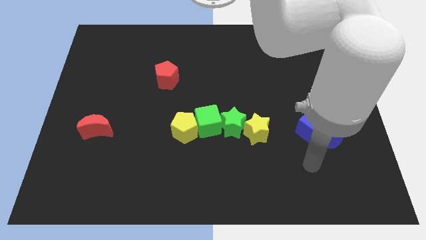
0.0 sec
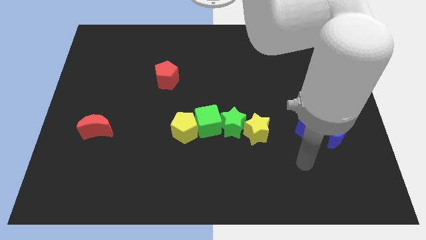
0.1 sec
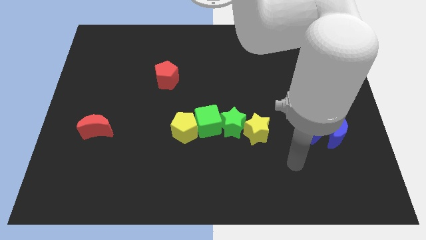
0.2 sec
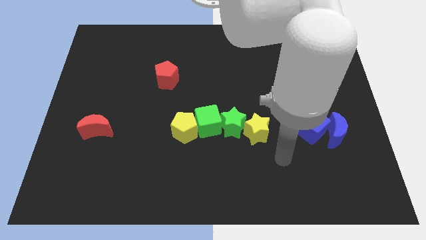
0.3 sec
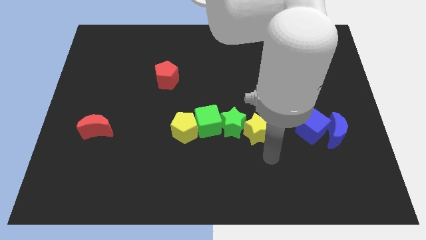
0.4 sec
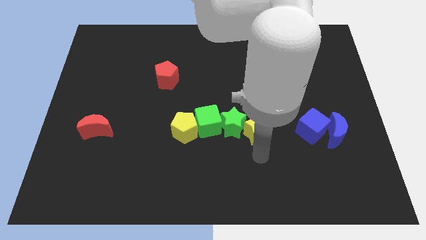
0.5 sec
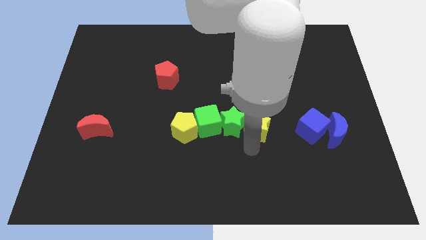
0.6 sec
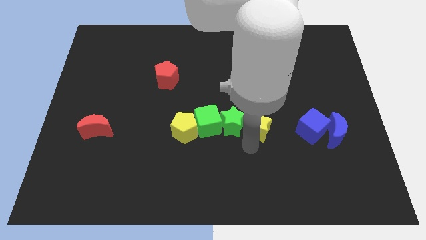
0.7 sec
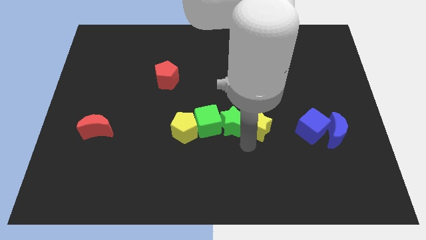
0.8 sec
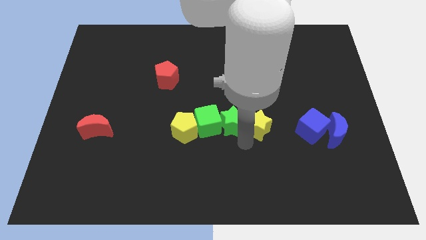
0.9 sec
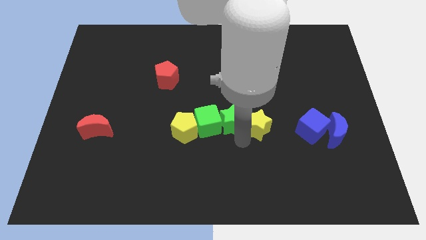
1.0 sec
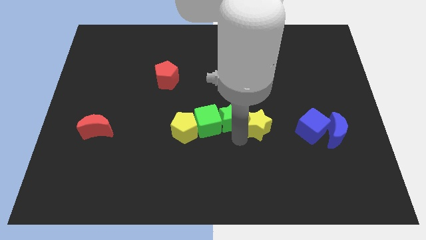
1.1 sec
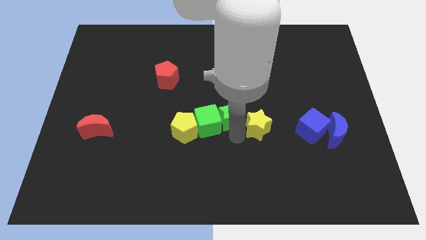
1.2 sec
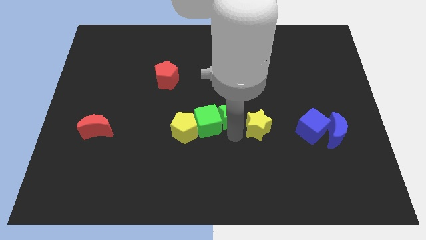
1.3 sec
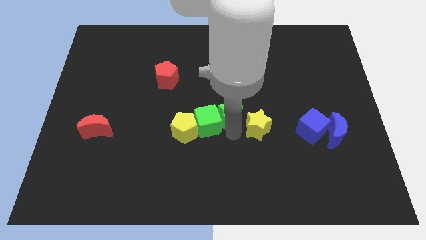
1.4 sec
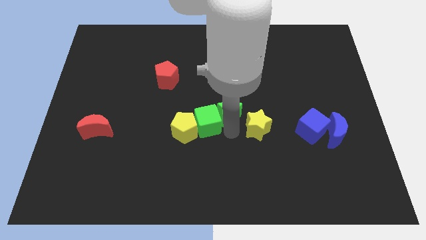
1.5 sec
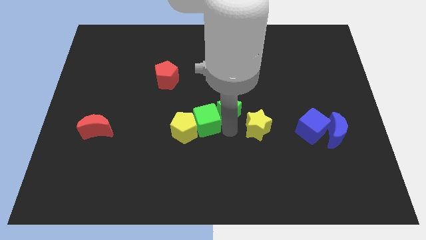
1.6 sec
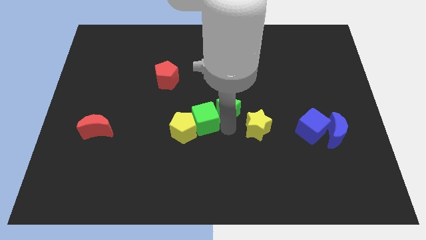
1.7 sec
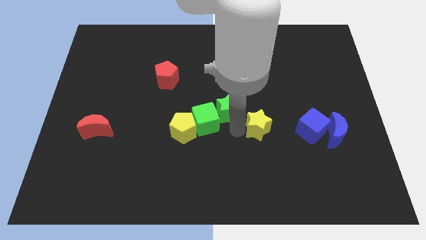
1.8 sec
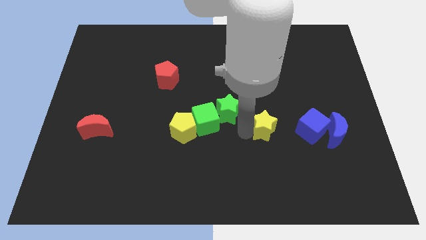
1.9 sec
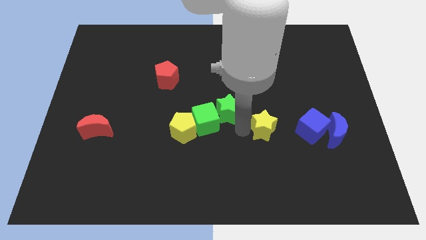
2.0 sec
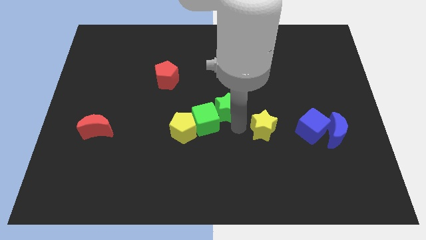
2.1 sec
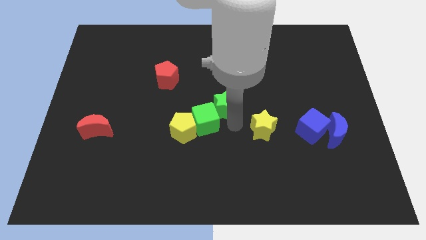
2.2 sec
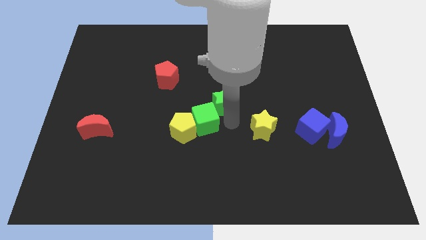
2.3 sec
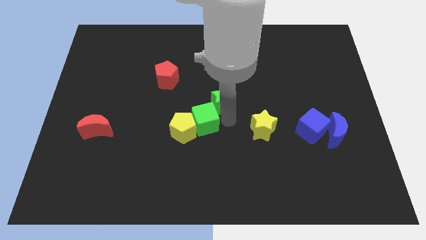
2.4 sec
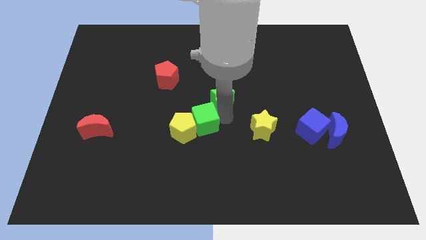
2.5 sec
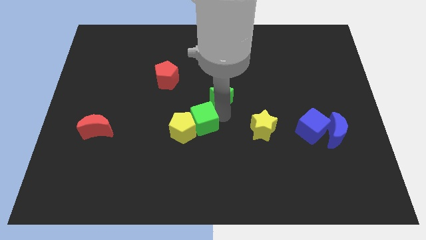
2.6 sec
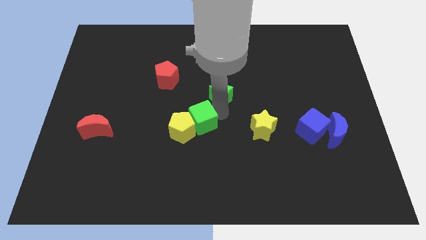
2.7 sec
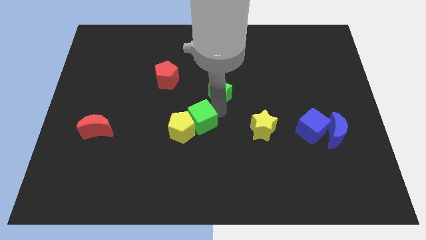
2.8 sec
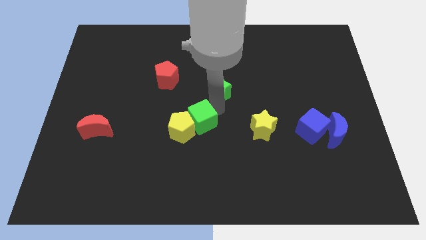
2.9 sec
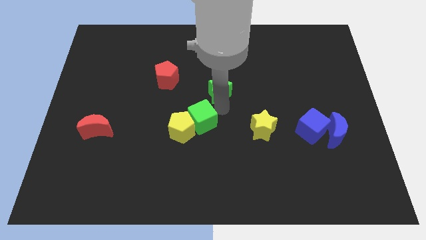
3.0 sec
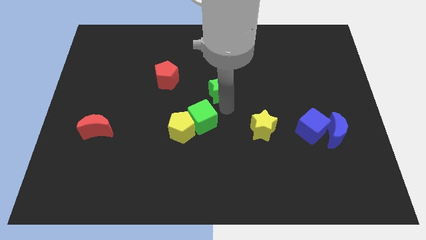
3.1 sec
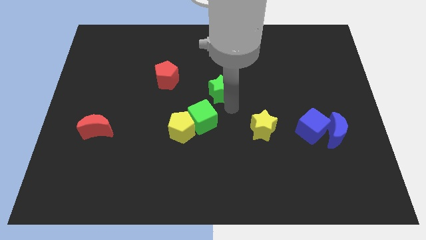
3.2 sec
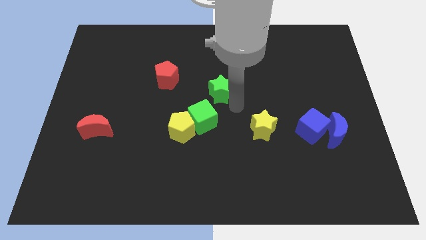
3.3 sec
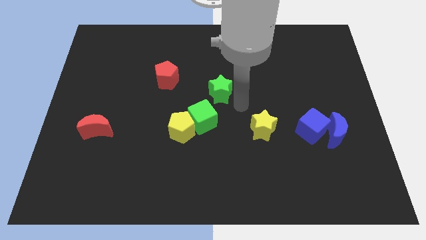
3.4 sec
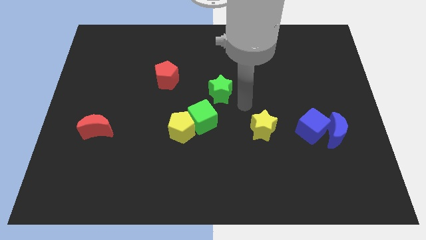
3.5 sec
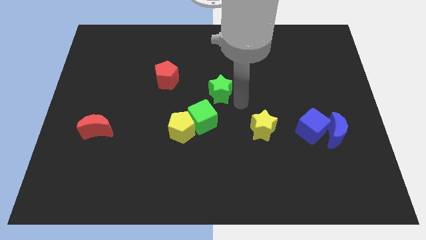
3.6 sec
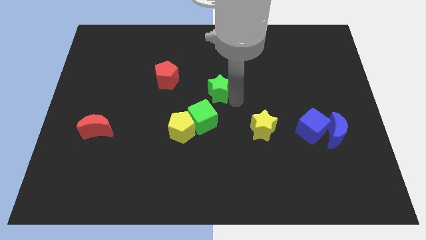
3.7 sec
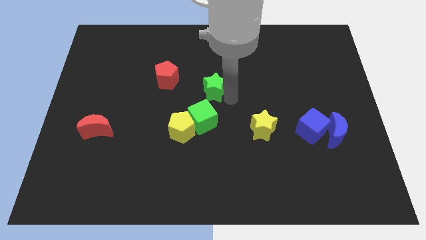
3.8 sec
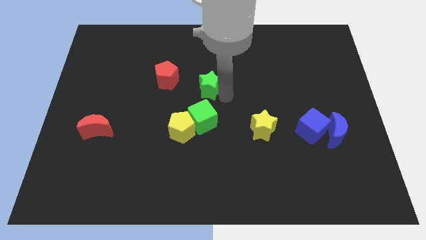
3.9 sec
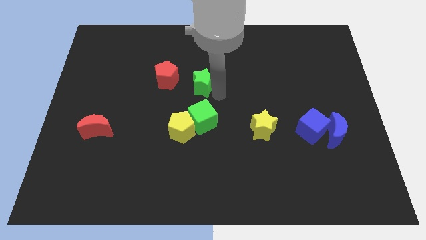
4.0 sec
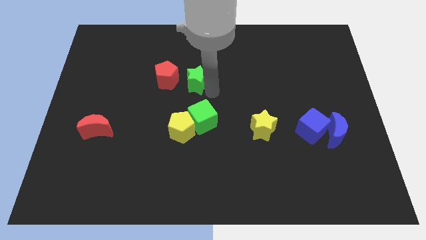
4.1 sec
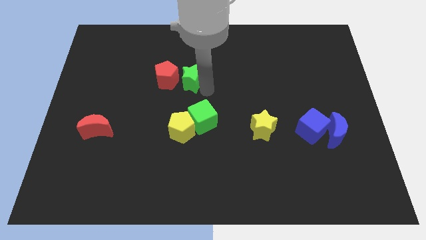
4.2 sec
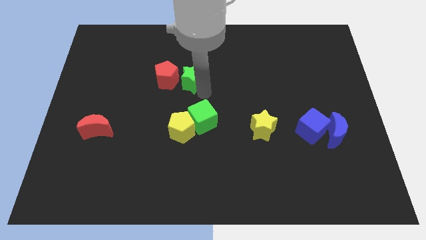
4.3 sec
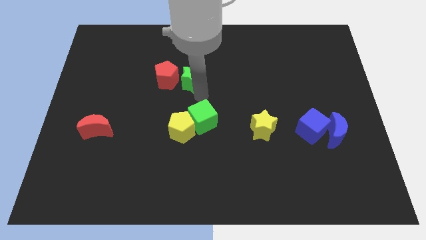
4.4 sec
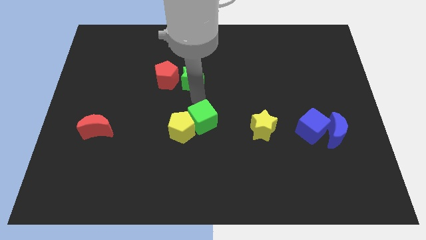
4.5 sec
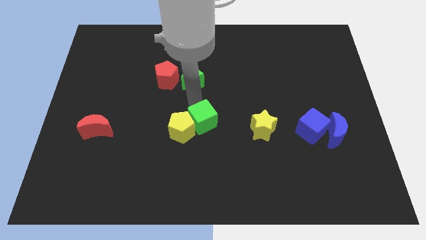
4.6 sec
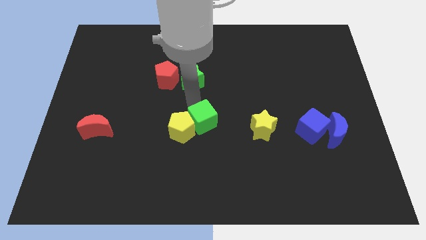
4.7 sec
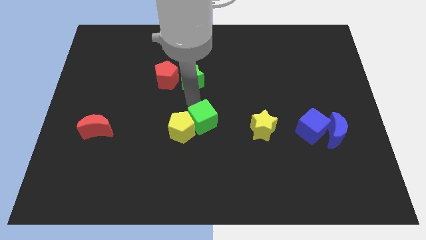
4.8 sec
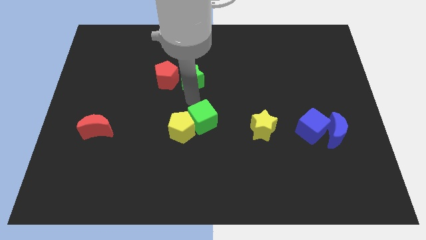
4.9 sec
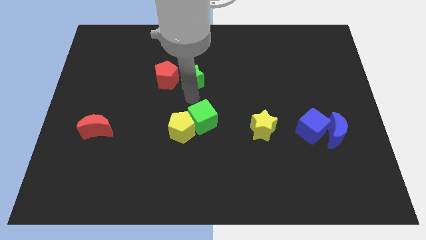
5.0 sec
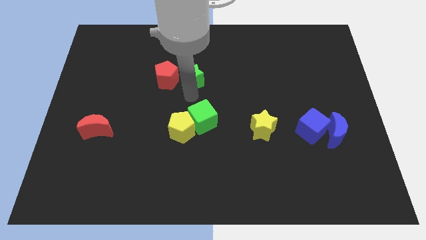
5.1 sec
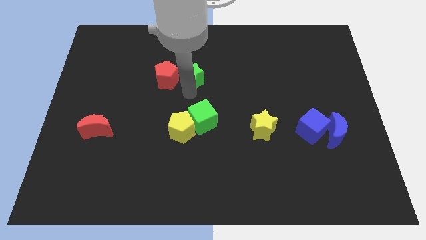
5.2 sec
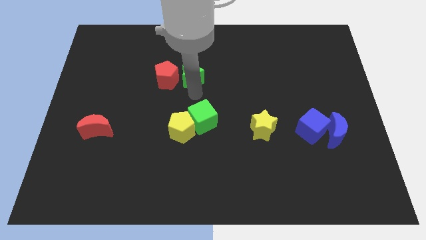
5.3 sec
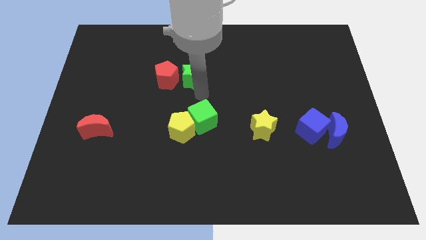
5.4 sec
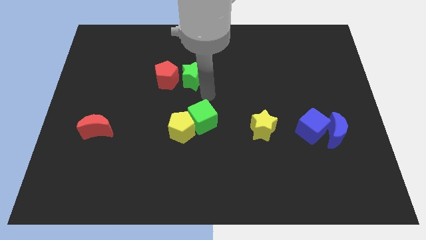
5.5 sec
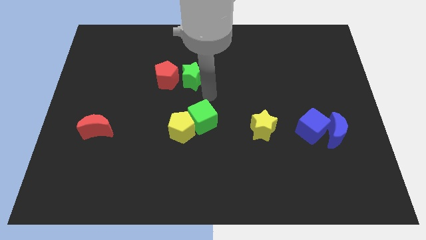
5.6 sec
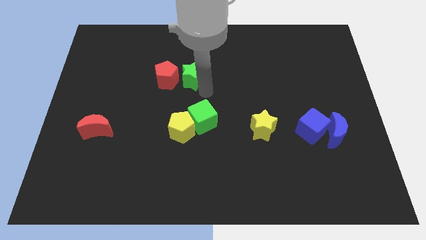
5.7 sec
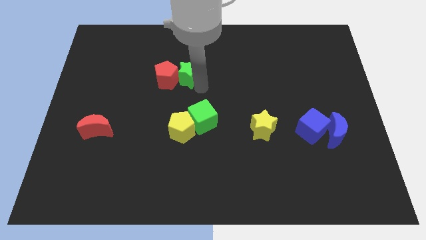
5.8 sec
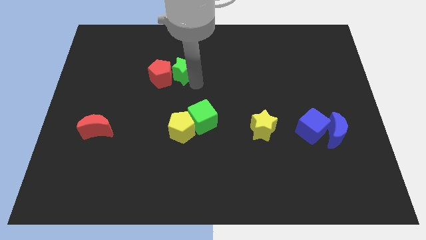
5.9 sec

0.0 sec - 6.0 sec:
push the green star up and to the left diagonally

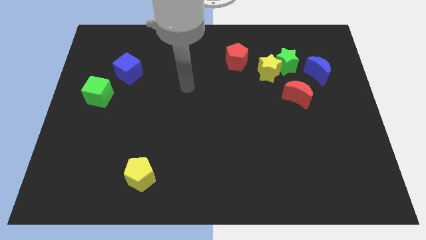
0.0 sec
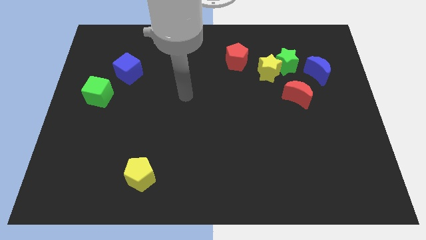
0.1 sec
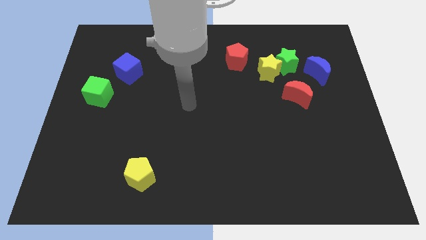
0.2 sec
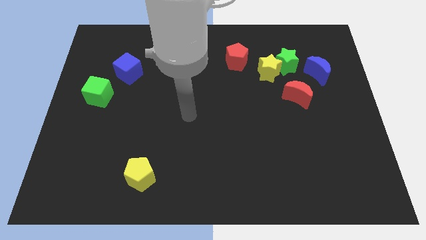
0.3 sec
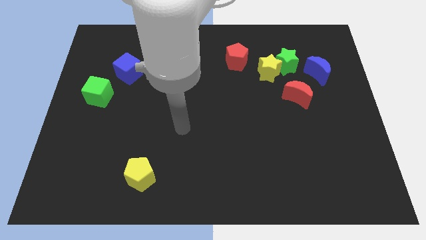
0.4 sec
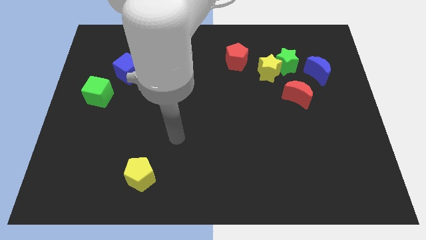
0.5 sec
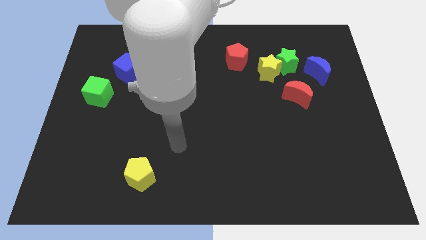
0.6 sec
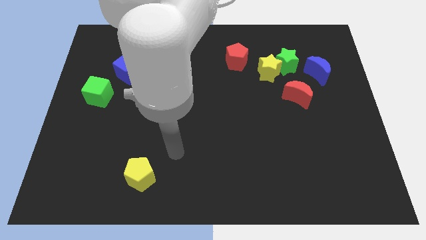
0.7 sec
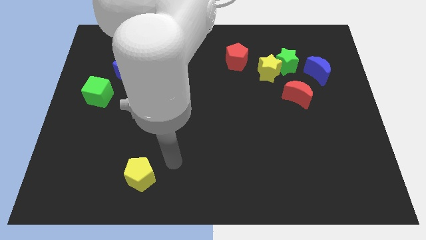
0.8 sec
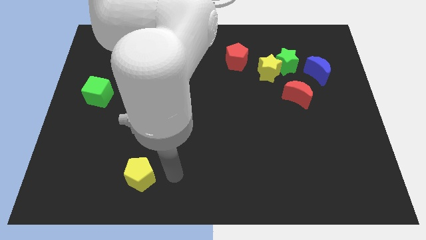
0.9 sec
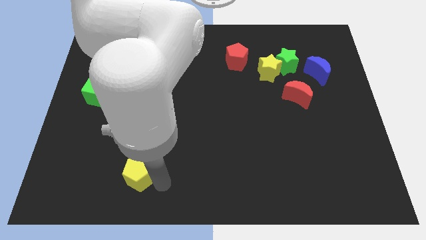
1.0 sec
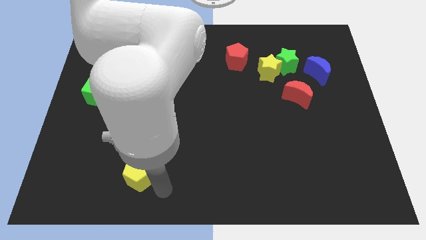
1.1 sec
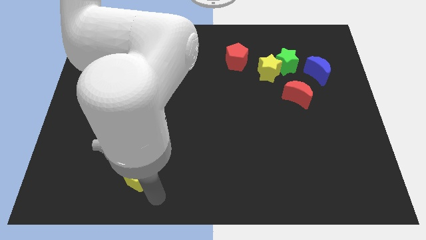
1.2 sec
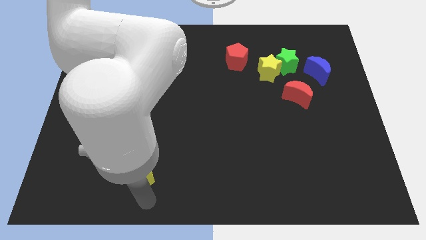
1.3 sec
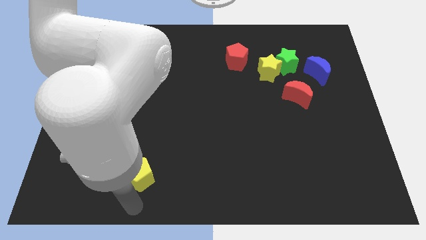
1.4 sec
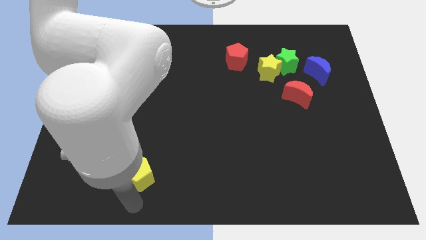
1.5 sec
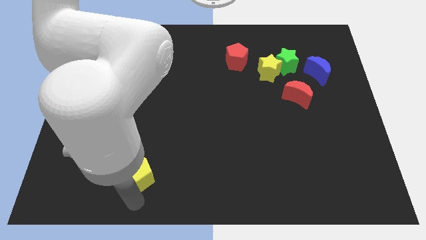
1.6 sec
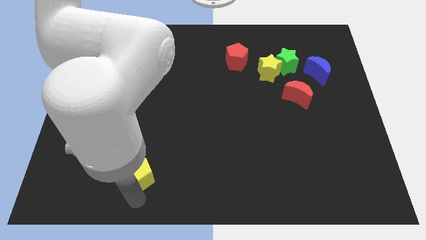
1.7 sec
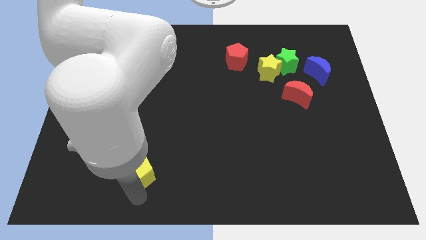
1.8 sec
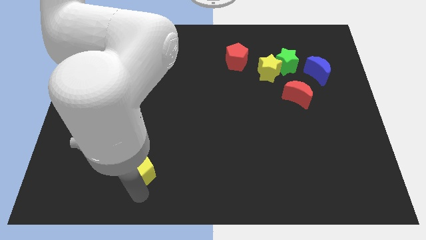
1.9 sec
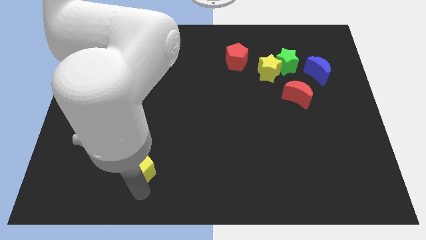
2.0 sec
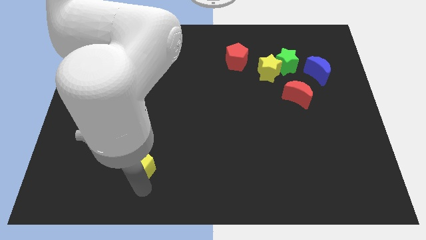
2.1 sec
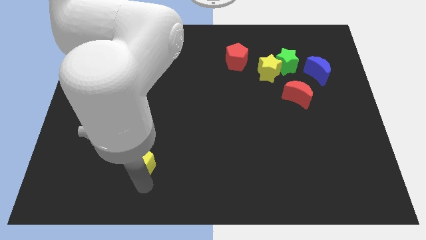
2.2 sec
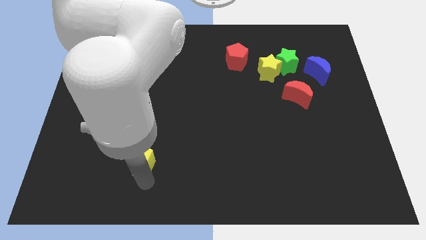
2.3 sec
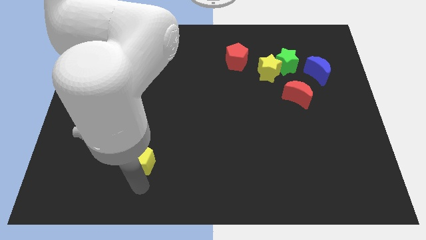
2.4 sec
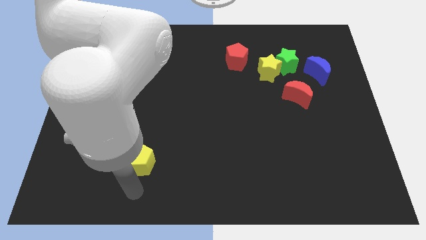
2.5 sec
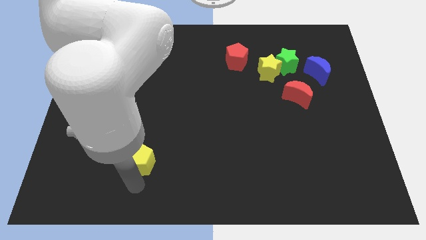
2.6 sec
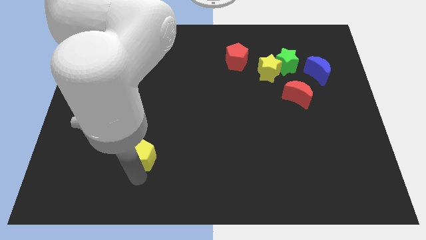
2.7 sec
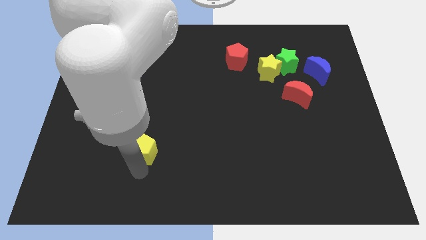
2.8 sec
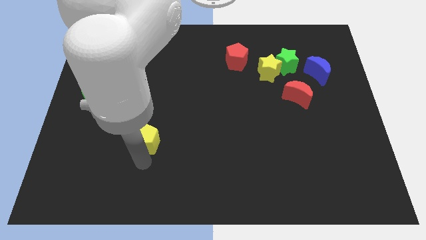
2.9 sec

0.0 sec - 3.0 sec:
slightly push the yellow pentagon upwards
